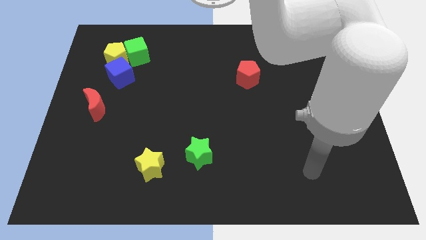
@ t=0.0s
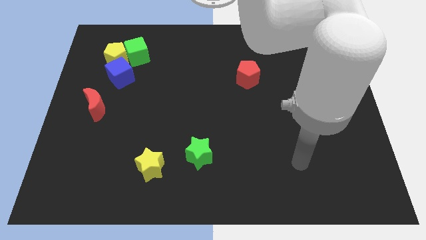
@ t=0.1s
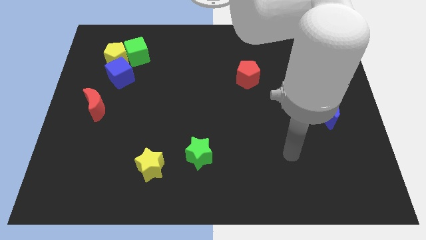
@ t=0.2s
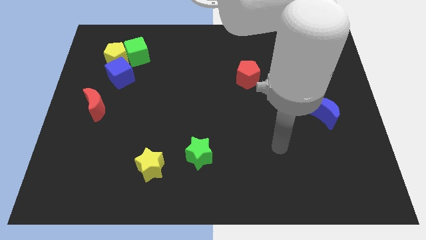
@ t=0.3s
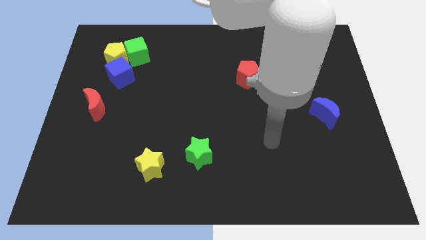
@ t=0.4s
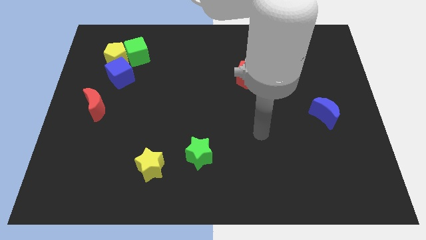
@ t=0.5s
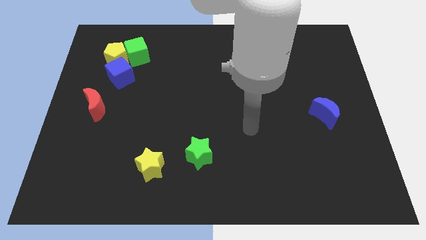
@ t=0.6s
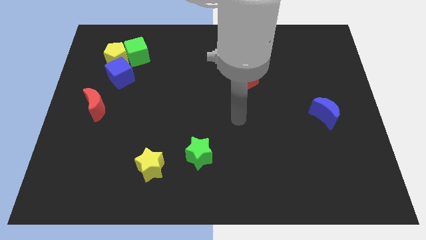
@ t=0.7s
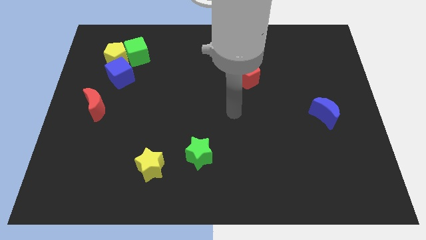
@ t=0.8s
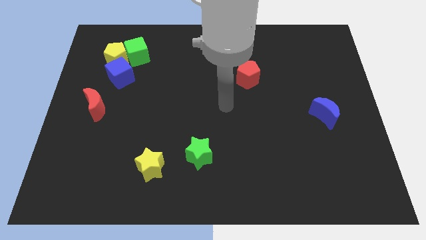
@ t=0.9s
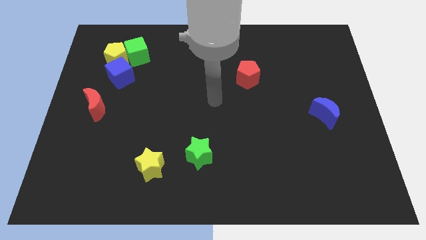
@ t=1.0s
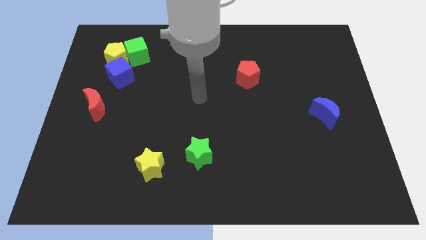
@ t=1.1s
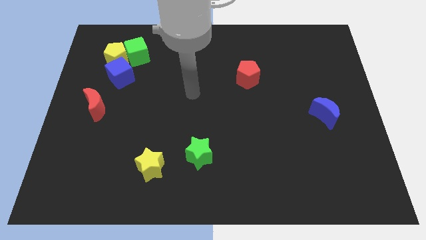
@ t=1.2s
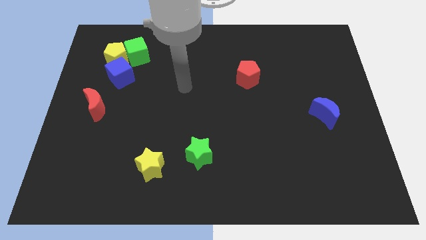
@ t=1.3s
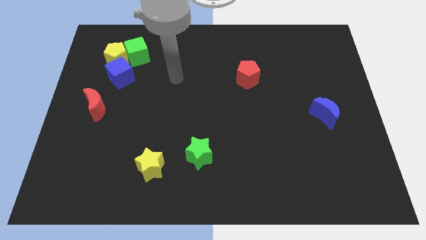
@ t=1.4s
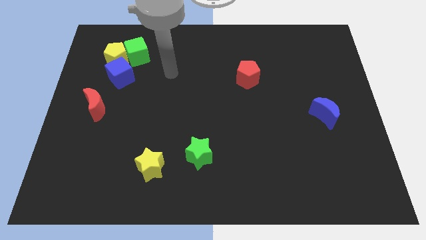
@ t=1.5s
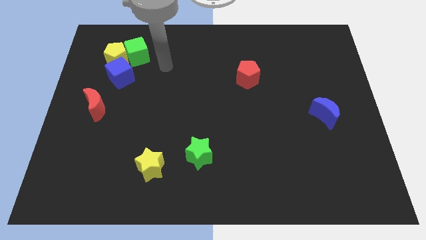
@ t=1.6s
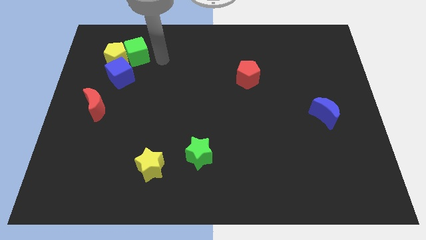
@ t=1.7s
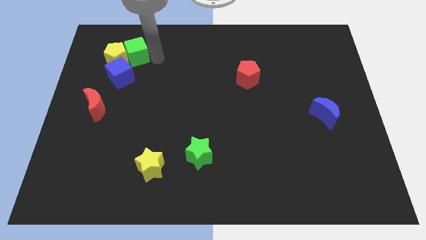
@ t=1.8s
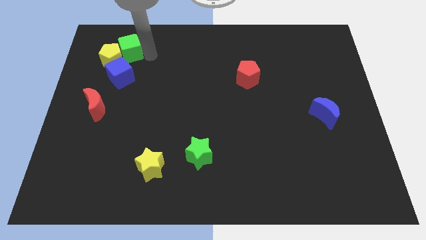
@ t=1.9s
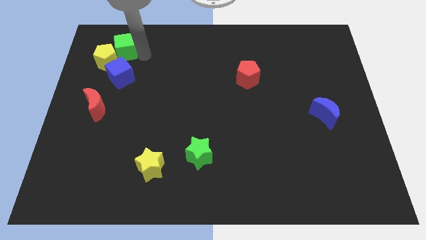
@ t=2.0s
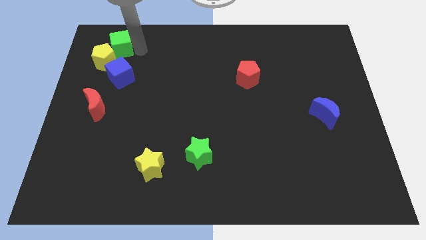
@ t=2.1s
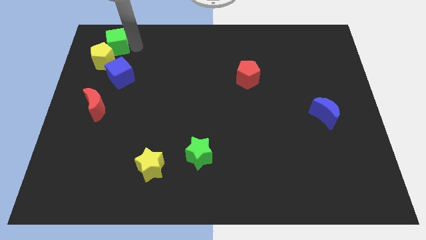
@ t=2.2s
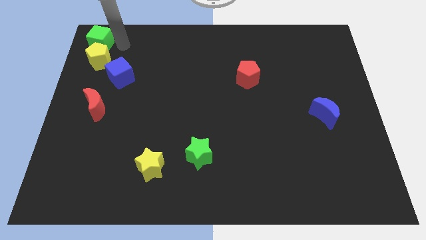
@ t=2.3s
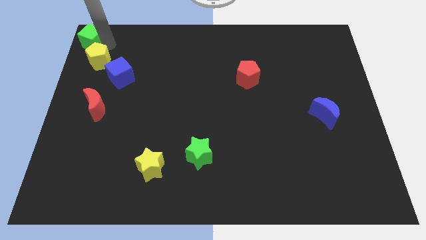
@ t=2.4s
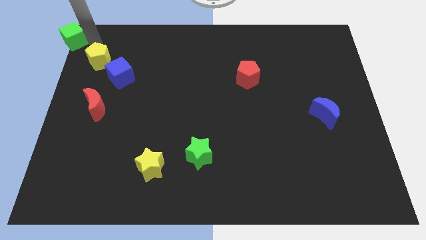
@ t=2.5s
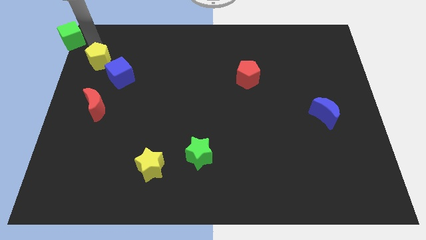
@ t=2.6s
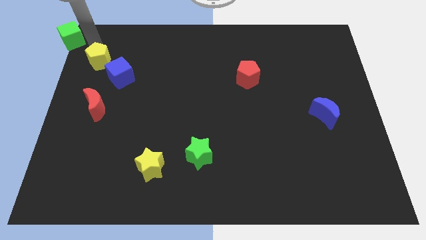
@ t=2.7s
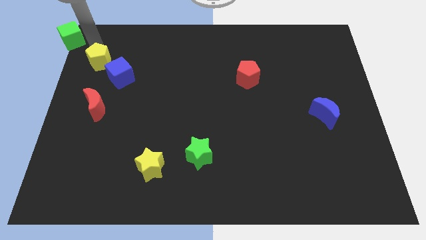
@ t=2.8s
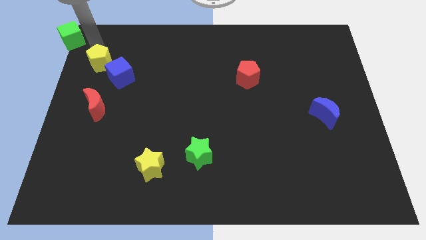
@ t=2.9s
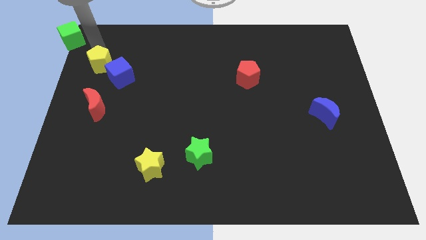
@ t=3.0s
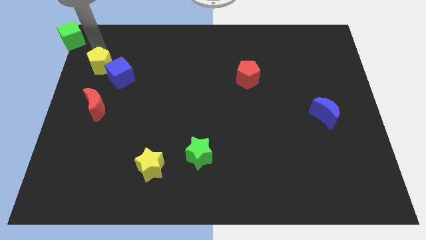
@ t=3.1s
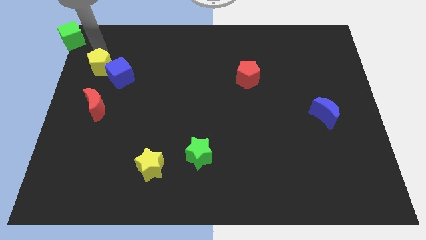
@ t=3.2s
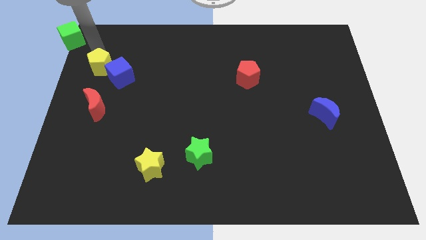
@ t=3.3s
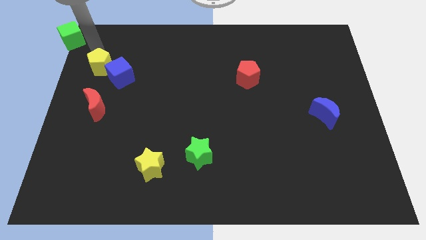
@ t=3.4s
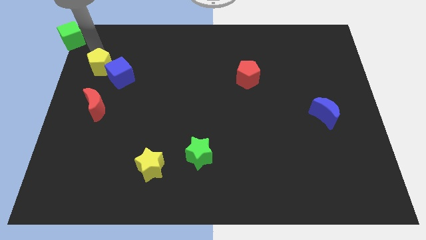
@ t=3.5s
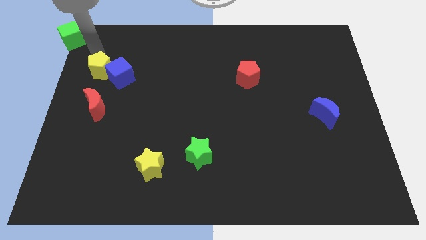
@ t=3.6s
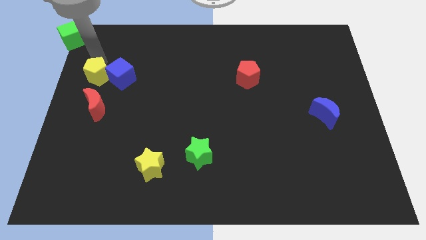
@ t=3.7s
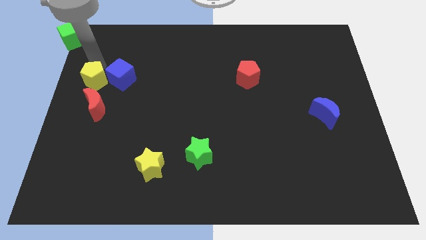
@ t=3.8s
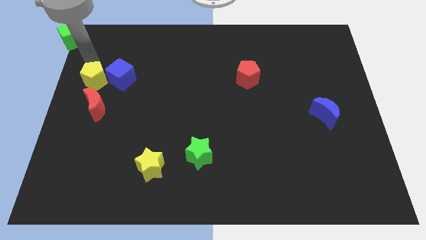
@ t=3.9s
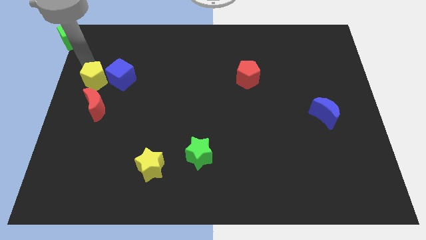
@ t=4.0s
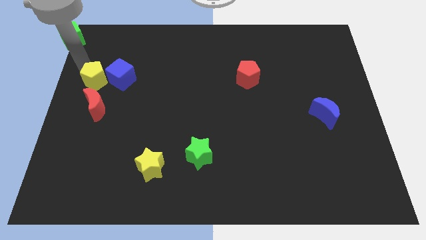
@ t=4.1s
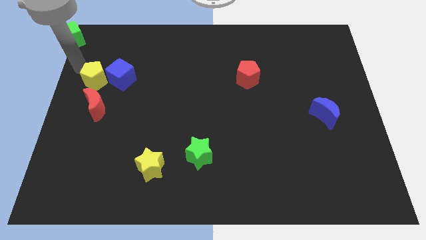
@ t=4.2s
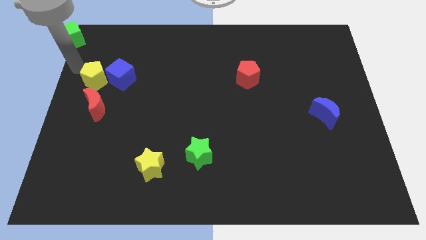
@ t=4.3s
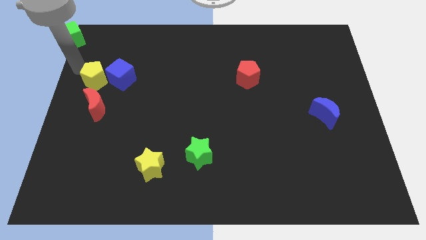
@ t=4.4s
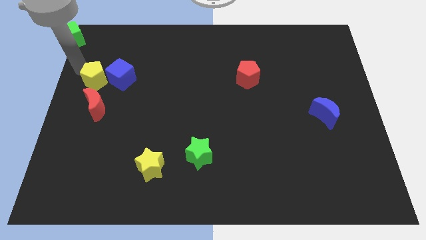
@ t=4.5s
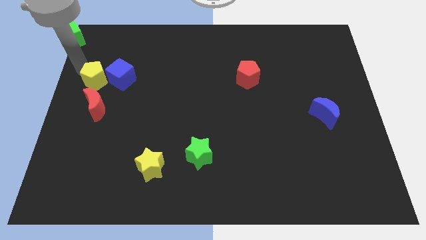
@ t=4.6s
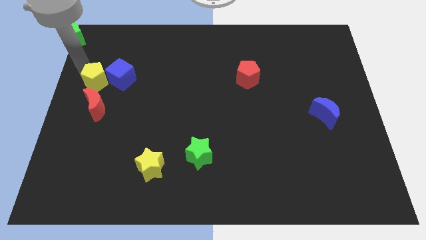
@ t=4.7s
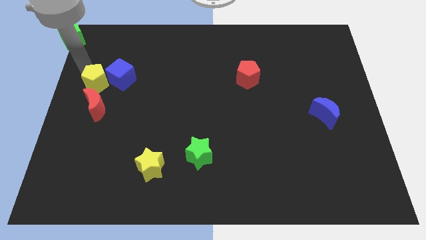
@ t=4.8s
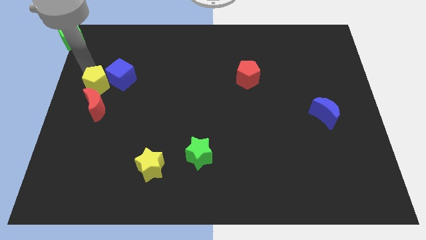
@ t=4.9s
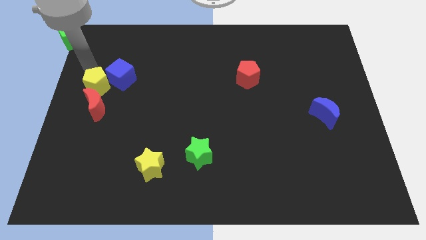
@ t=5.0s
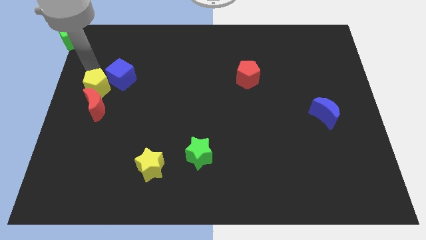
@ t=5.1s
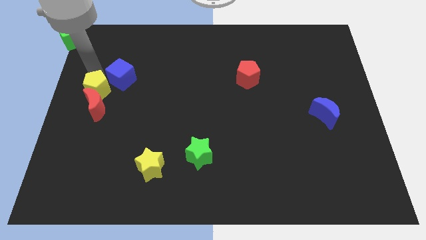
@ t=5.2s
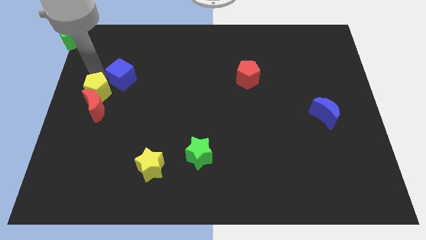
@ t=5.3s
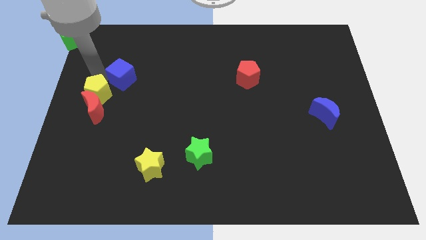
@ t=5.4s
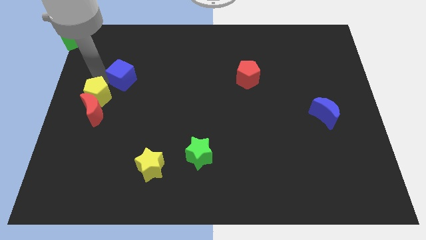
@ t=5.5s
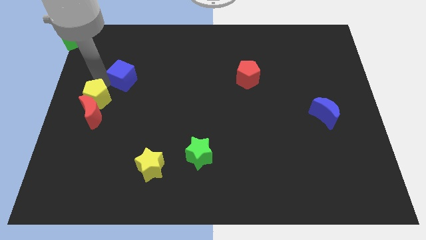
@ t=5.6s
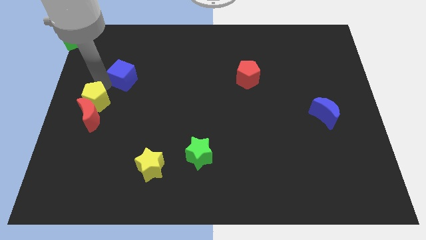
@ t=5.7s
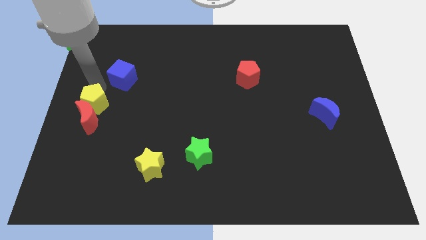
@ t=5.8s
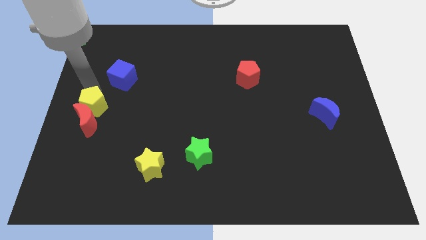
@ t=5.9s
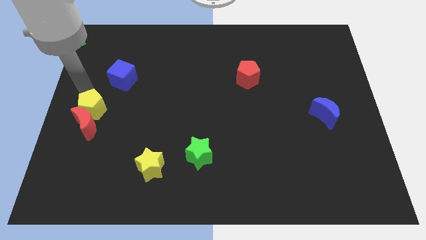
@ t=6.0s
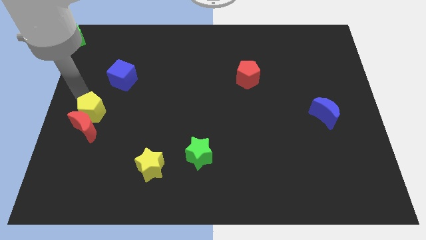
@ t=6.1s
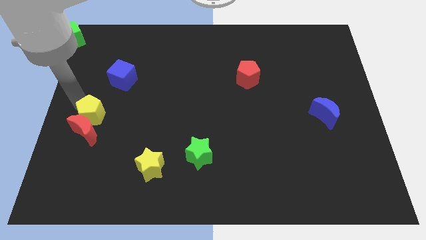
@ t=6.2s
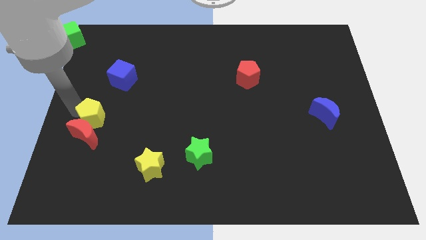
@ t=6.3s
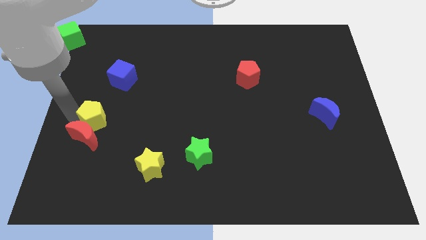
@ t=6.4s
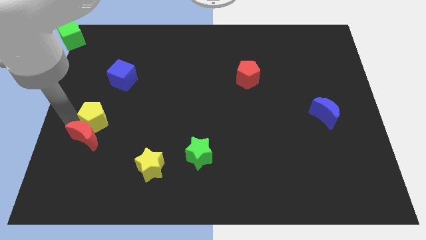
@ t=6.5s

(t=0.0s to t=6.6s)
move the yellow pentagon downwards

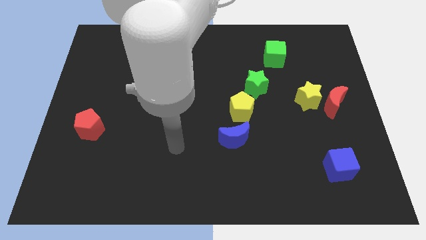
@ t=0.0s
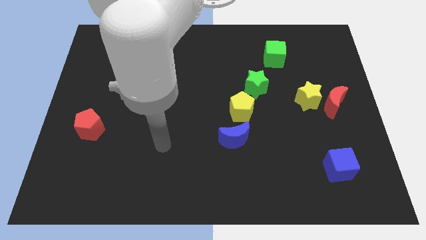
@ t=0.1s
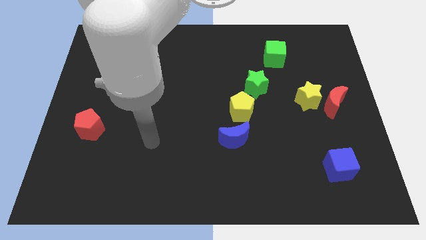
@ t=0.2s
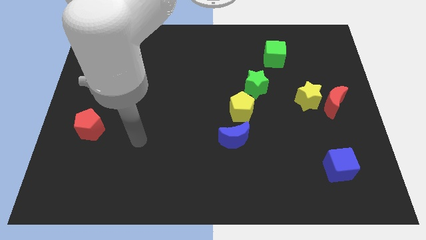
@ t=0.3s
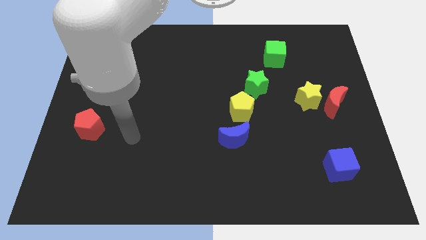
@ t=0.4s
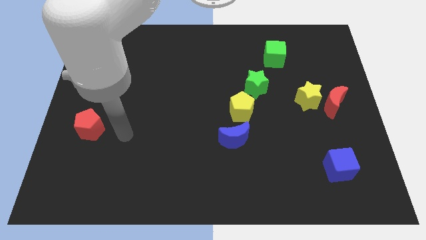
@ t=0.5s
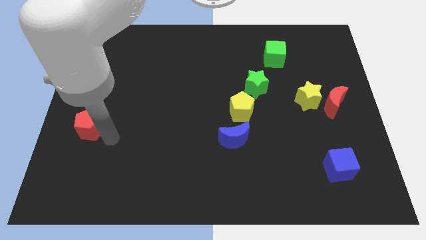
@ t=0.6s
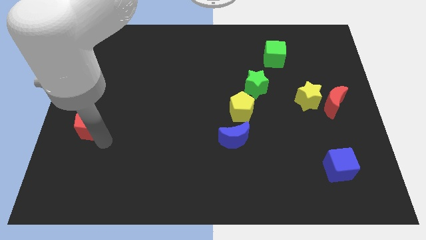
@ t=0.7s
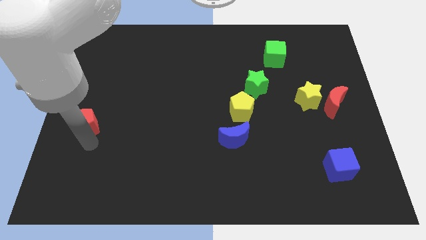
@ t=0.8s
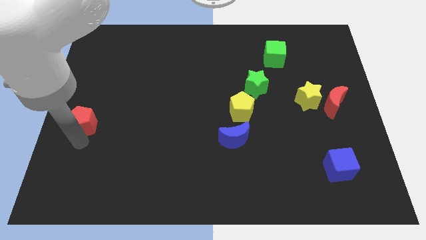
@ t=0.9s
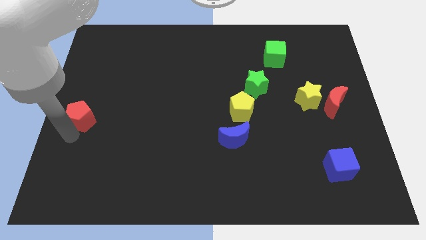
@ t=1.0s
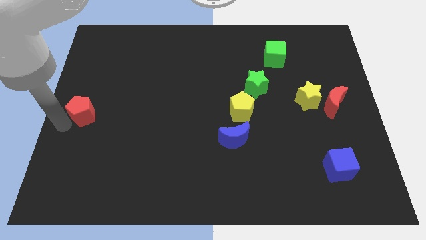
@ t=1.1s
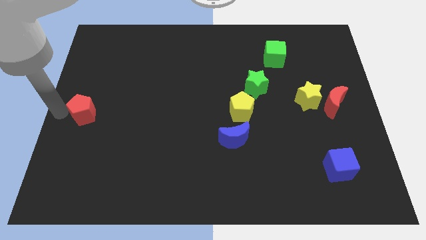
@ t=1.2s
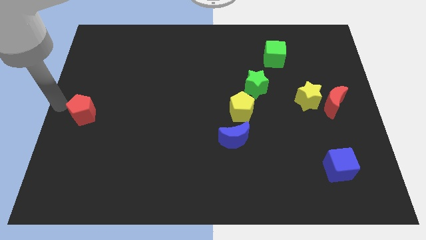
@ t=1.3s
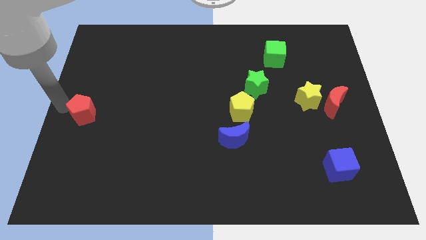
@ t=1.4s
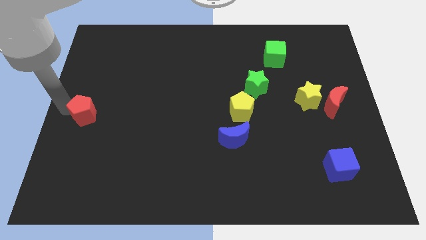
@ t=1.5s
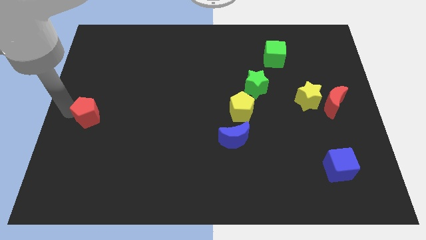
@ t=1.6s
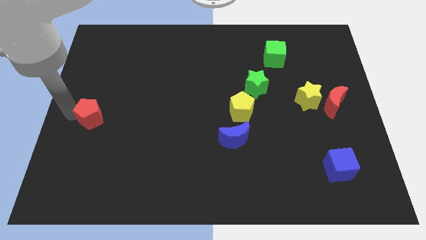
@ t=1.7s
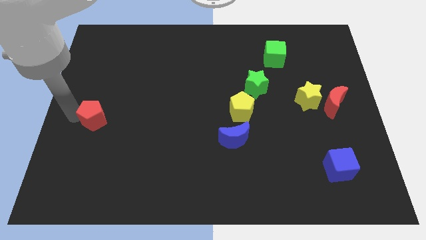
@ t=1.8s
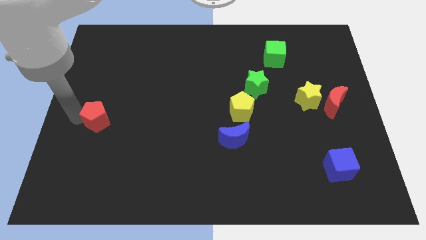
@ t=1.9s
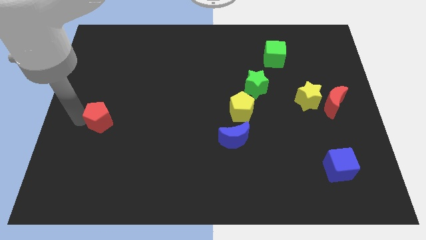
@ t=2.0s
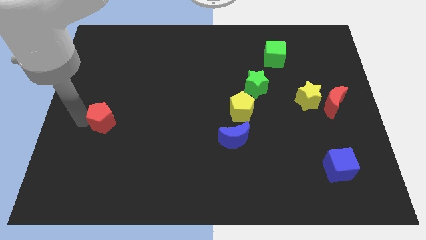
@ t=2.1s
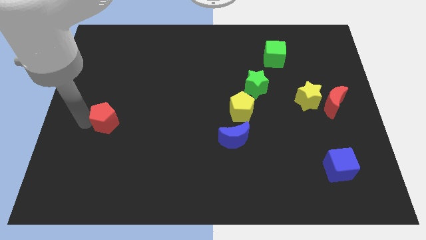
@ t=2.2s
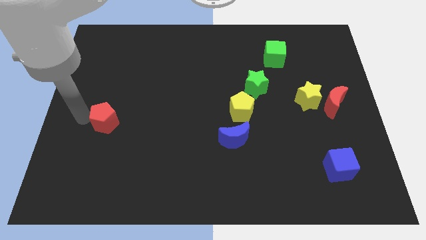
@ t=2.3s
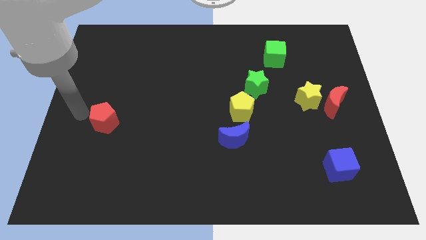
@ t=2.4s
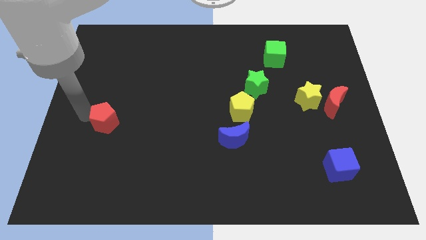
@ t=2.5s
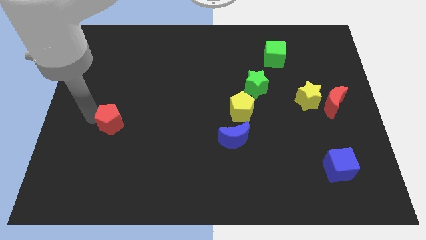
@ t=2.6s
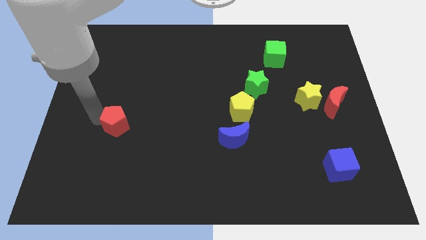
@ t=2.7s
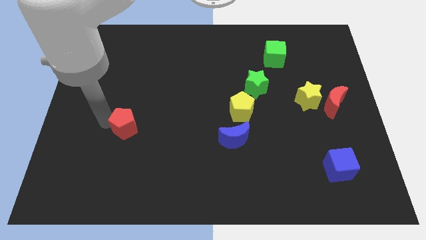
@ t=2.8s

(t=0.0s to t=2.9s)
push the red pentagon a little bit right
